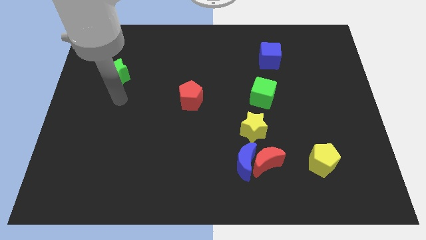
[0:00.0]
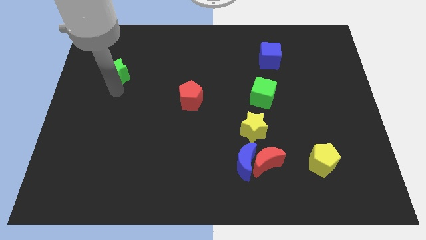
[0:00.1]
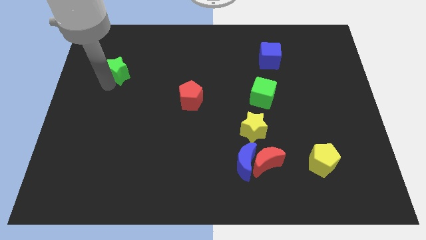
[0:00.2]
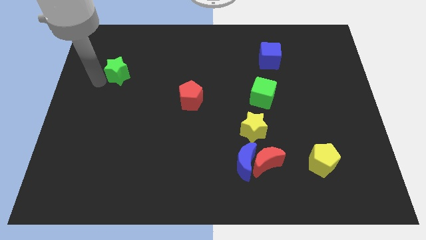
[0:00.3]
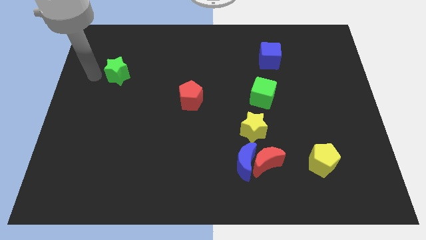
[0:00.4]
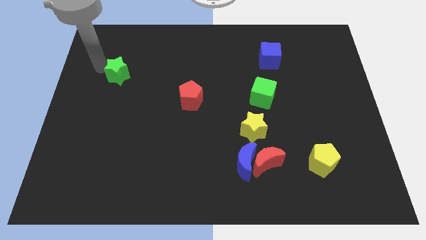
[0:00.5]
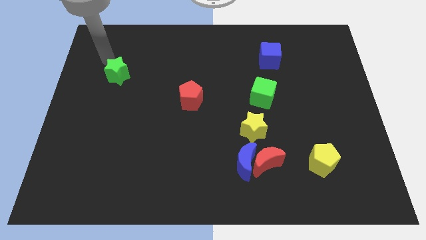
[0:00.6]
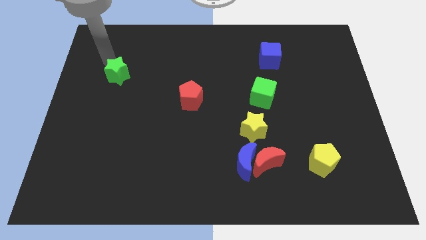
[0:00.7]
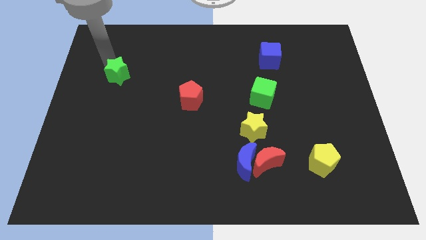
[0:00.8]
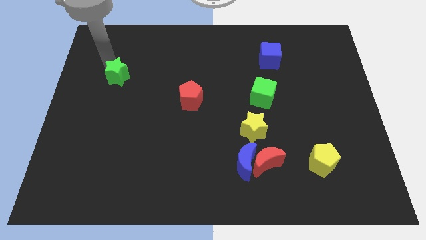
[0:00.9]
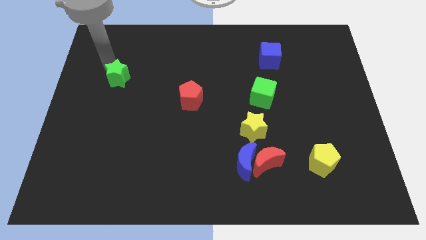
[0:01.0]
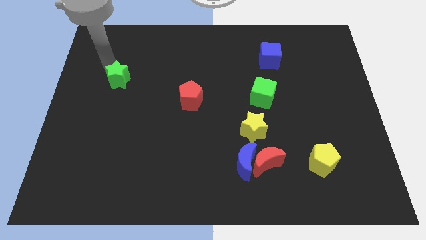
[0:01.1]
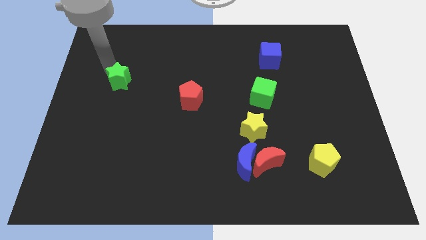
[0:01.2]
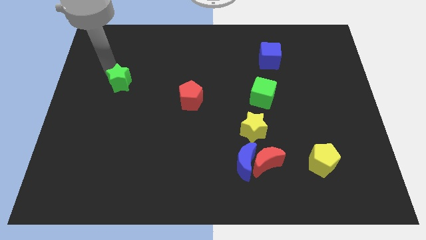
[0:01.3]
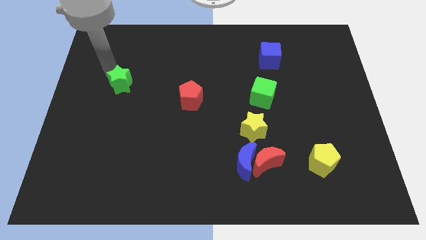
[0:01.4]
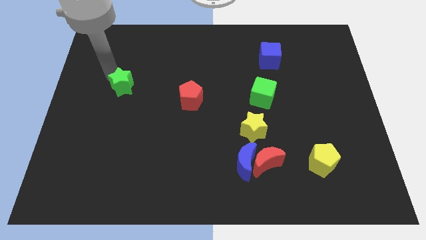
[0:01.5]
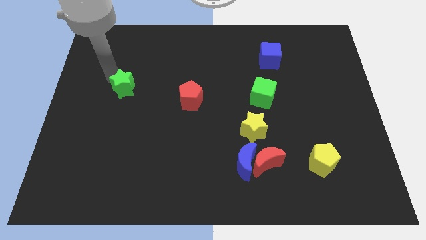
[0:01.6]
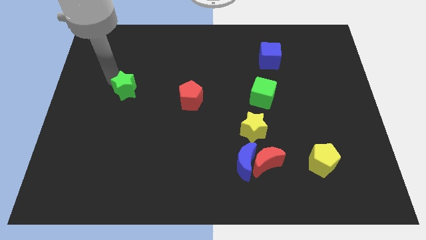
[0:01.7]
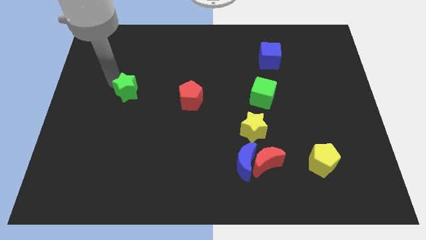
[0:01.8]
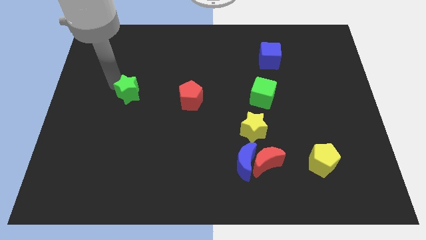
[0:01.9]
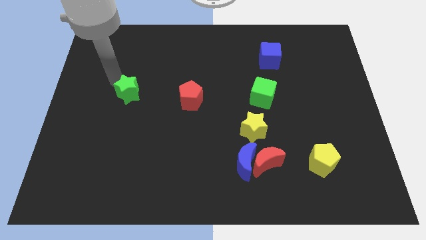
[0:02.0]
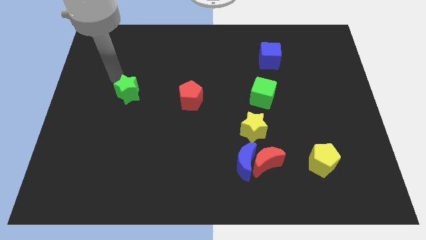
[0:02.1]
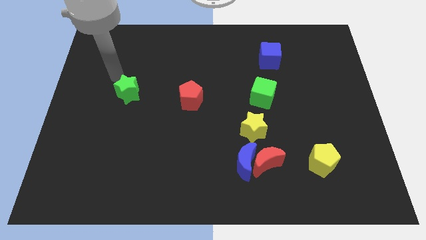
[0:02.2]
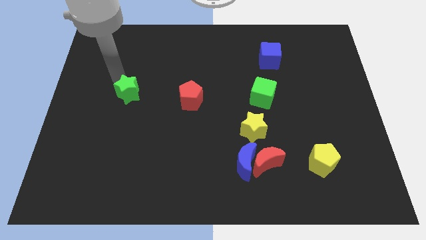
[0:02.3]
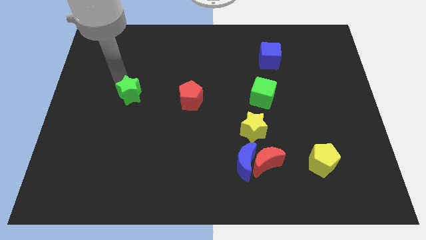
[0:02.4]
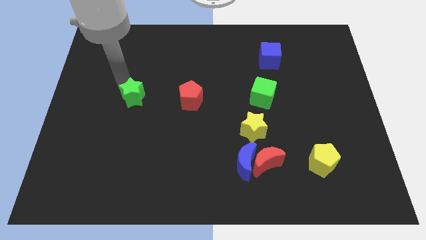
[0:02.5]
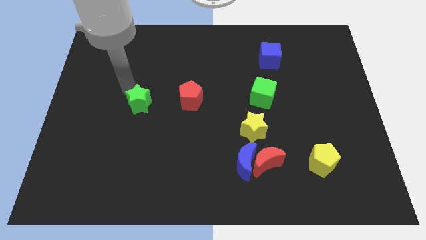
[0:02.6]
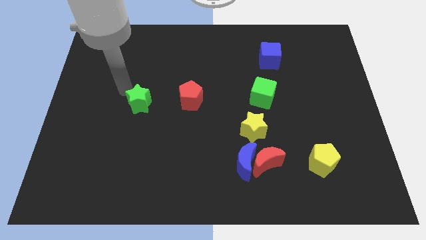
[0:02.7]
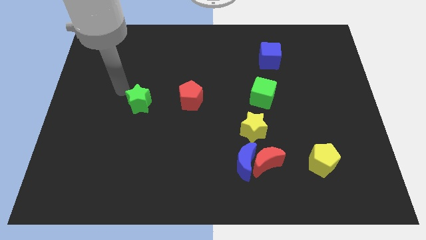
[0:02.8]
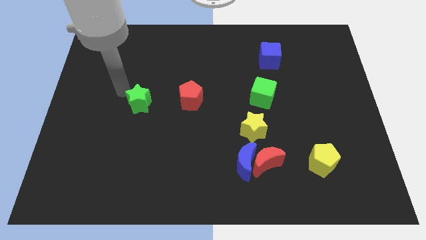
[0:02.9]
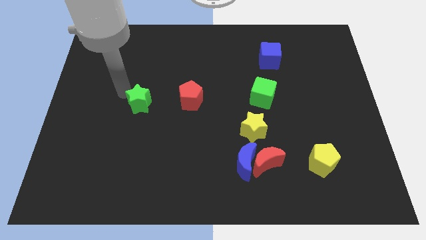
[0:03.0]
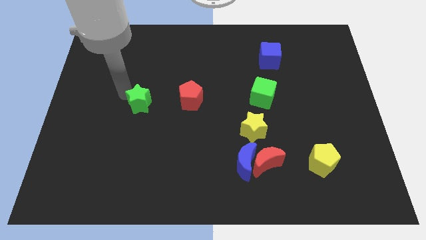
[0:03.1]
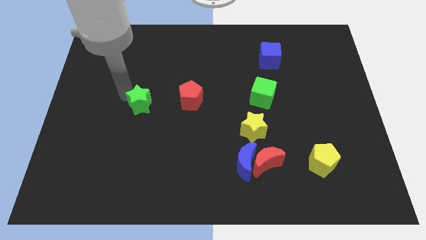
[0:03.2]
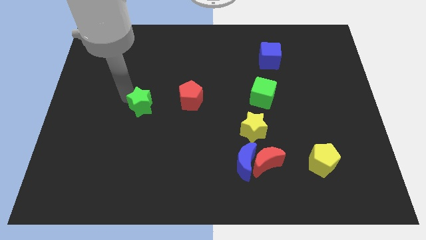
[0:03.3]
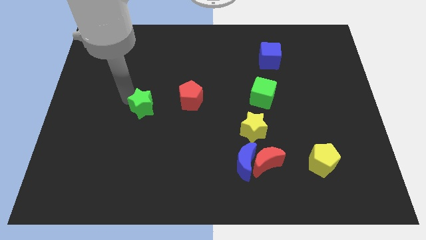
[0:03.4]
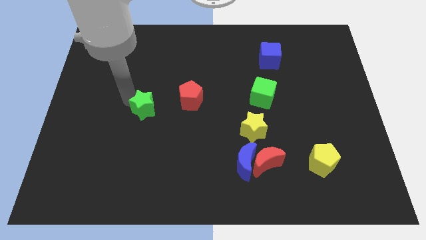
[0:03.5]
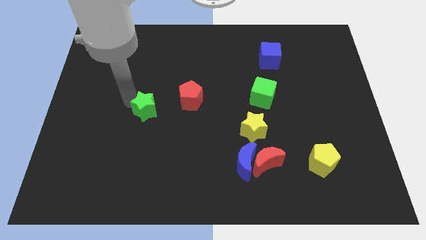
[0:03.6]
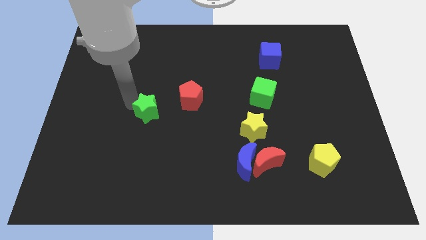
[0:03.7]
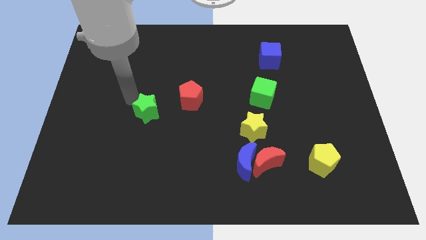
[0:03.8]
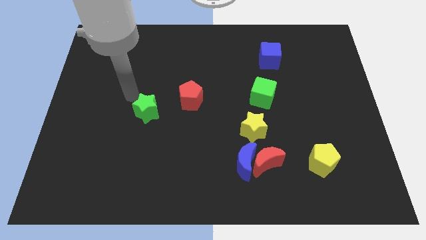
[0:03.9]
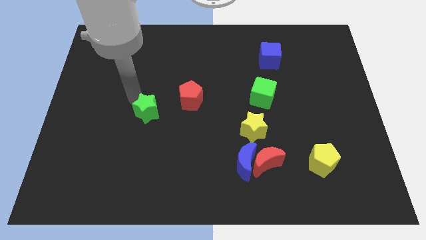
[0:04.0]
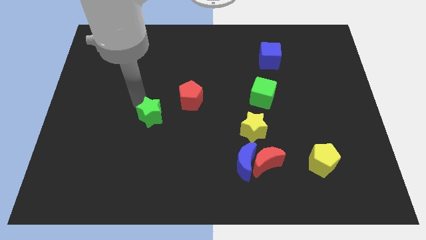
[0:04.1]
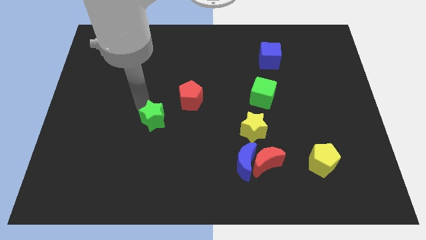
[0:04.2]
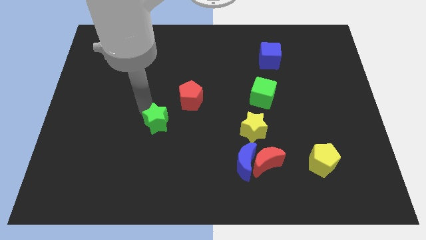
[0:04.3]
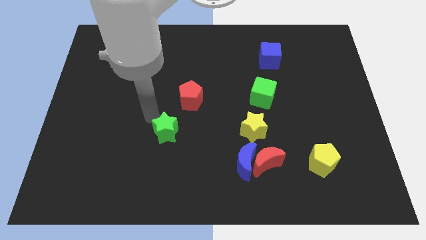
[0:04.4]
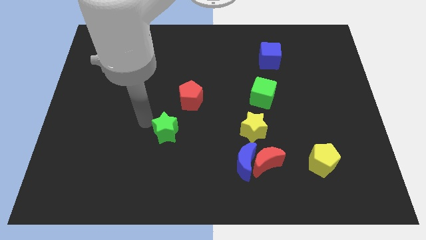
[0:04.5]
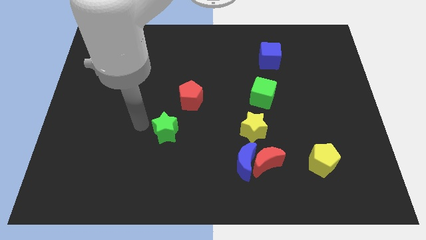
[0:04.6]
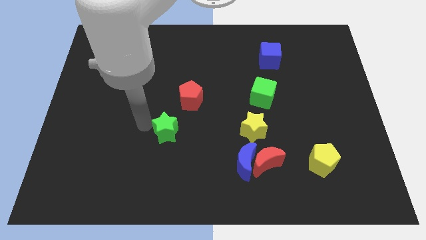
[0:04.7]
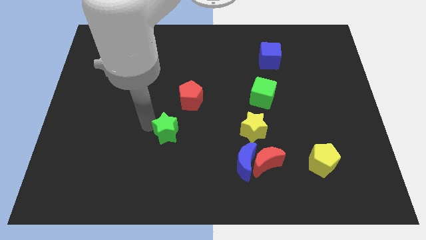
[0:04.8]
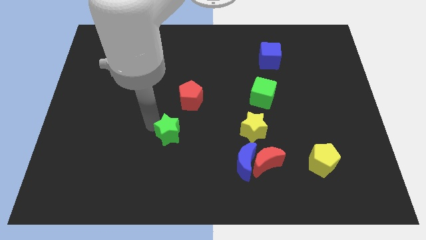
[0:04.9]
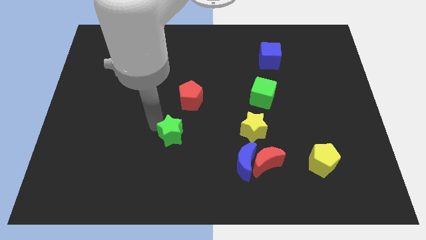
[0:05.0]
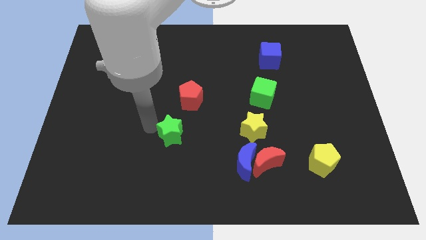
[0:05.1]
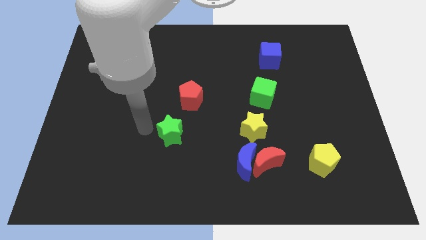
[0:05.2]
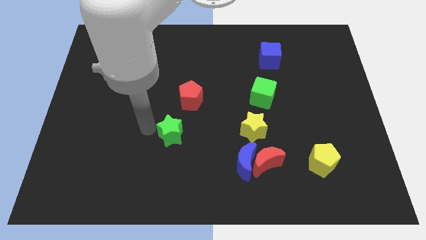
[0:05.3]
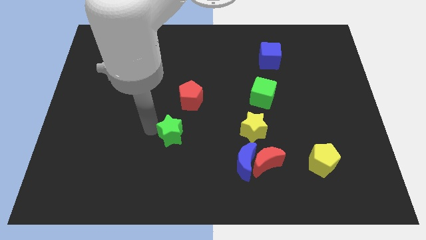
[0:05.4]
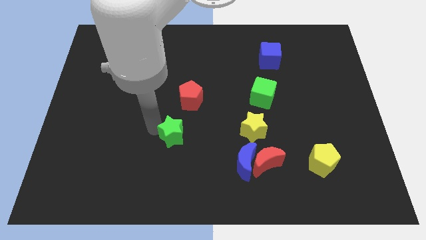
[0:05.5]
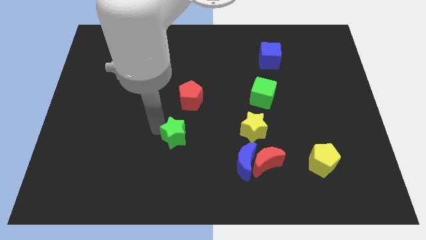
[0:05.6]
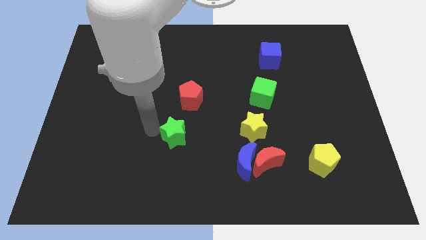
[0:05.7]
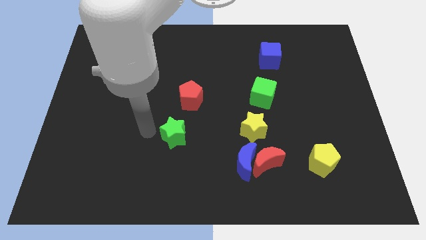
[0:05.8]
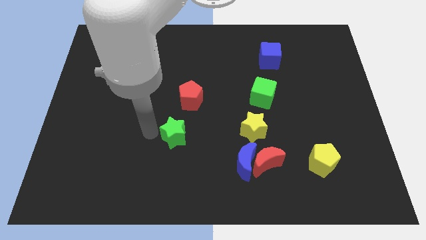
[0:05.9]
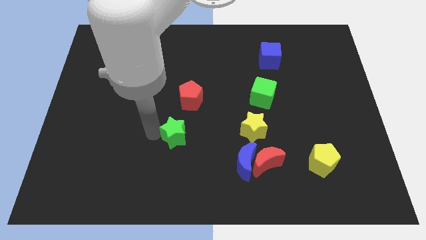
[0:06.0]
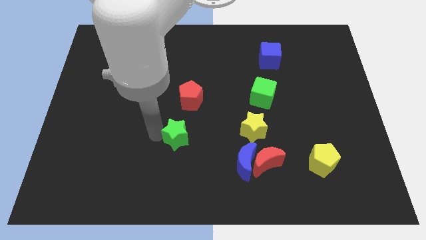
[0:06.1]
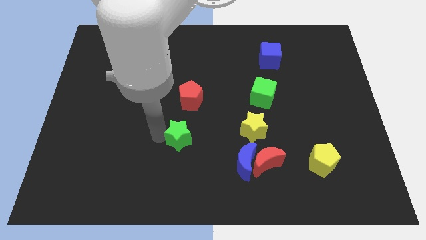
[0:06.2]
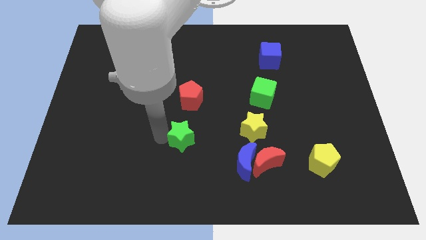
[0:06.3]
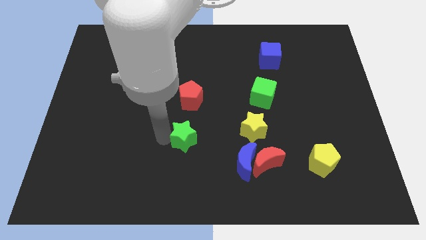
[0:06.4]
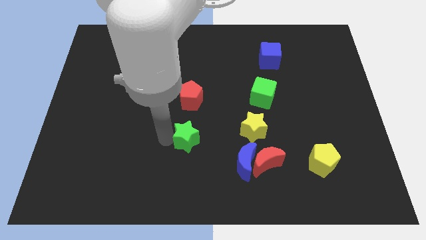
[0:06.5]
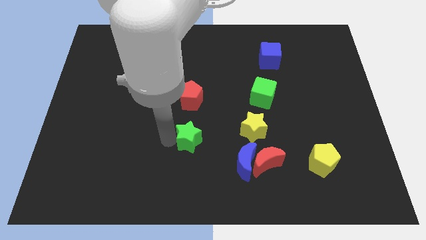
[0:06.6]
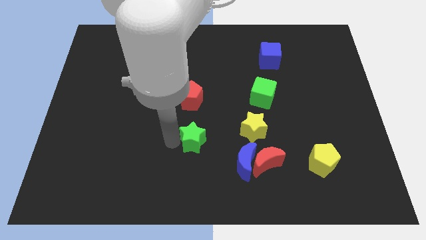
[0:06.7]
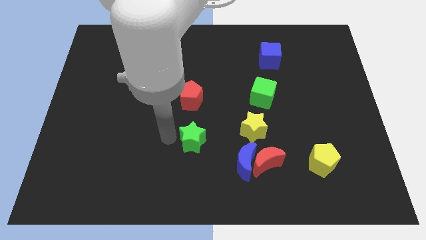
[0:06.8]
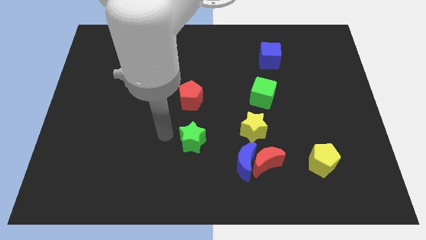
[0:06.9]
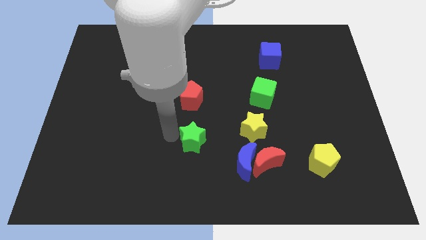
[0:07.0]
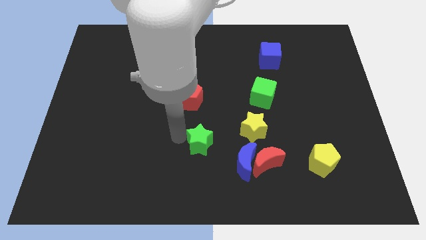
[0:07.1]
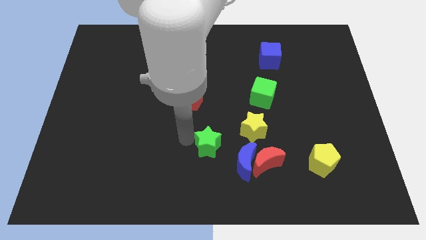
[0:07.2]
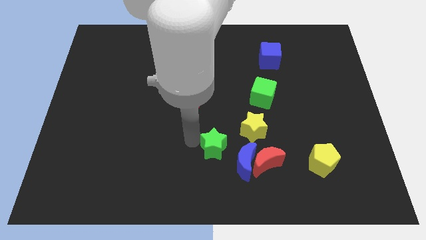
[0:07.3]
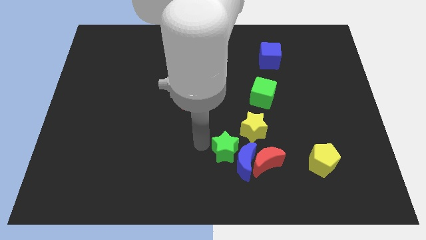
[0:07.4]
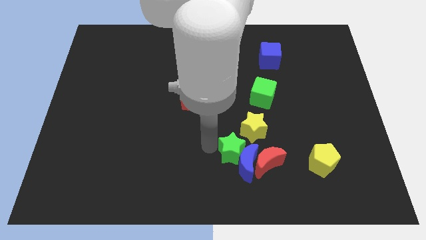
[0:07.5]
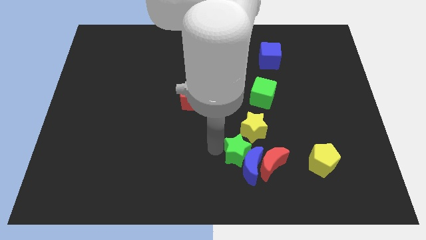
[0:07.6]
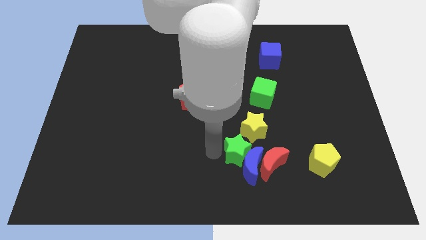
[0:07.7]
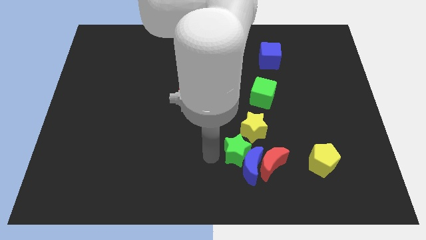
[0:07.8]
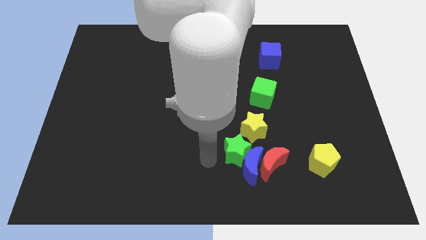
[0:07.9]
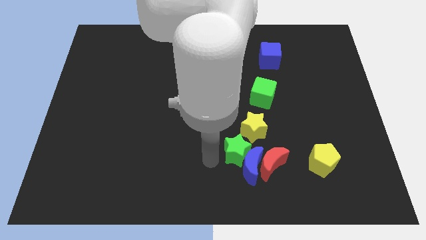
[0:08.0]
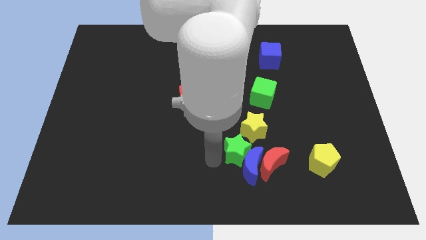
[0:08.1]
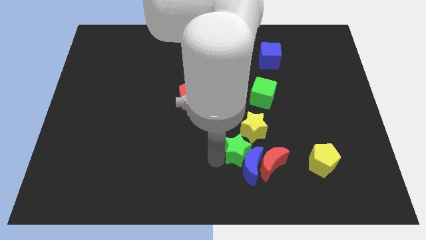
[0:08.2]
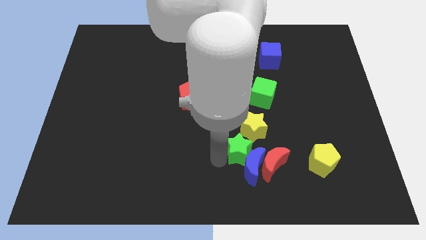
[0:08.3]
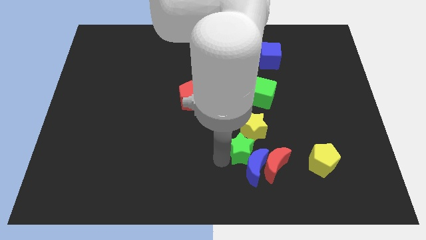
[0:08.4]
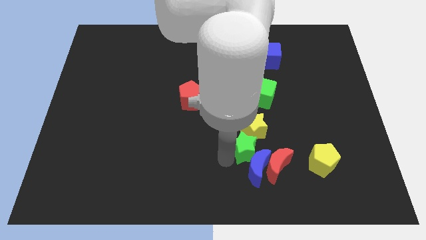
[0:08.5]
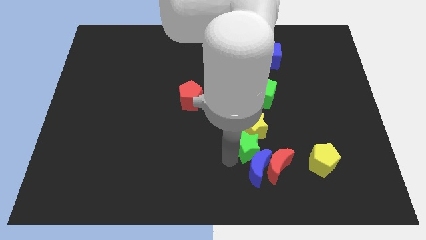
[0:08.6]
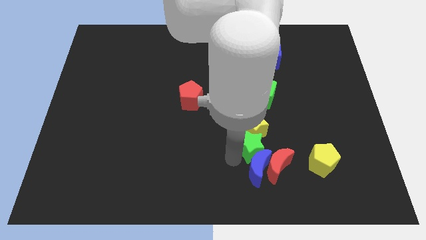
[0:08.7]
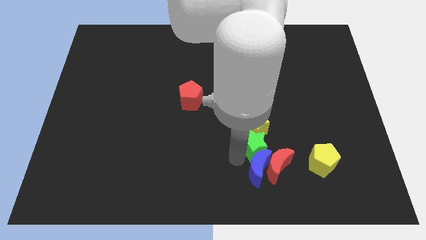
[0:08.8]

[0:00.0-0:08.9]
slide the green star to the bottom side of the green cube

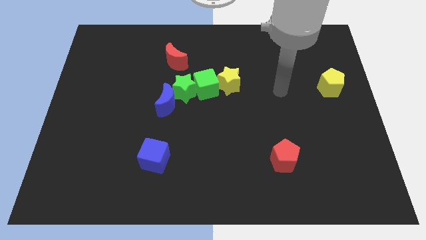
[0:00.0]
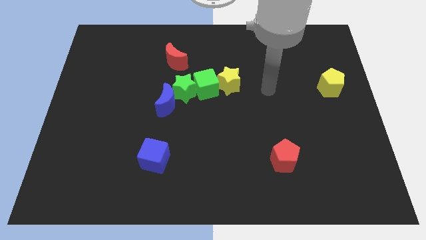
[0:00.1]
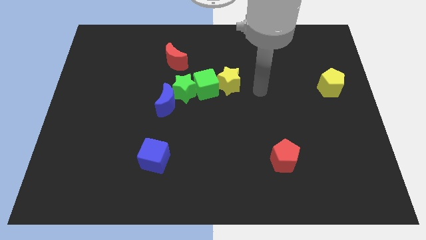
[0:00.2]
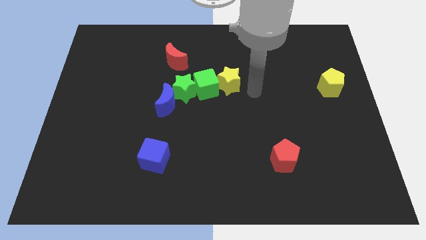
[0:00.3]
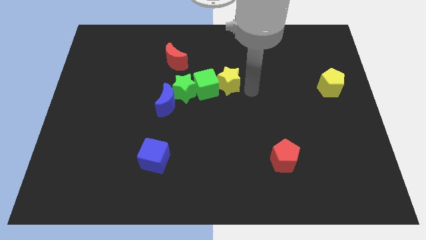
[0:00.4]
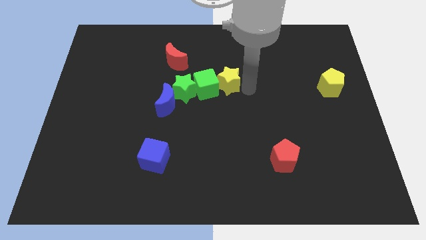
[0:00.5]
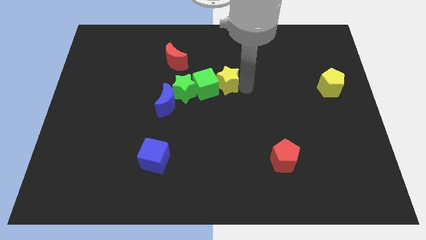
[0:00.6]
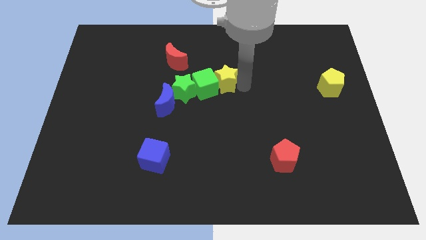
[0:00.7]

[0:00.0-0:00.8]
put the yellow star to the top right side of the green star
